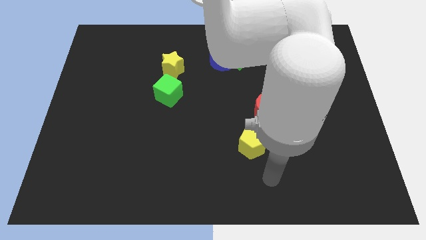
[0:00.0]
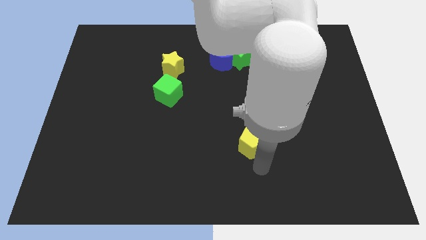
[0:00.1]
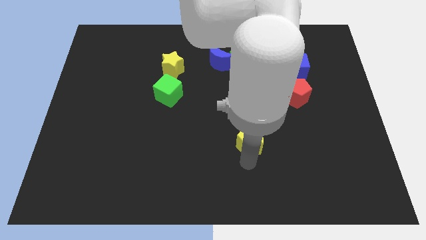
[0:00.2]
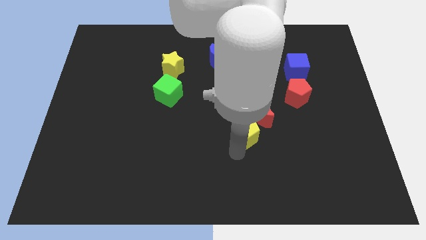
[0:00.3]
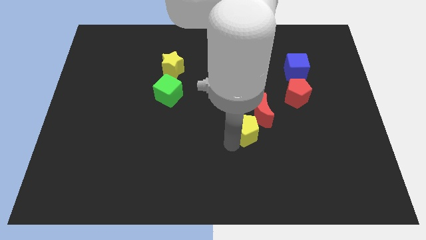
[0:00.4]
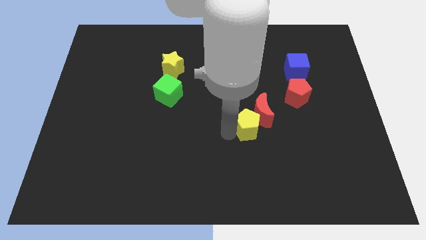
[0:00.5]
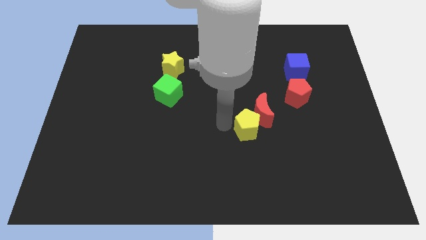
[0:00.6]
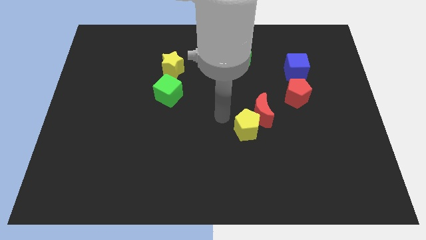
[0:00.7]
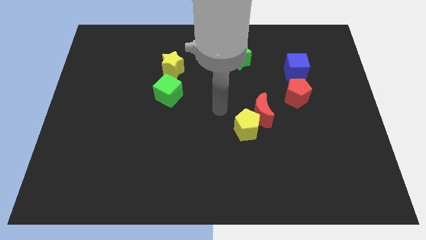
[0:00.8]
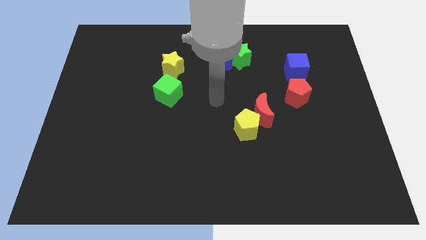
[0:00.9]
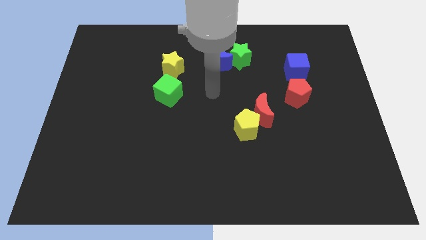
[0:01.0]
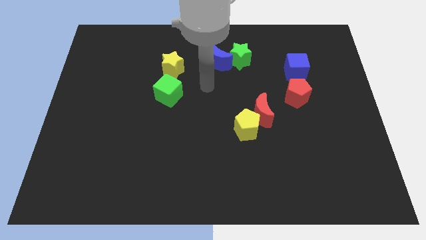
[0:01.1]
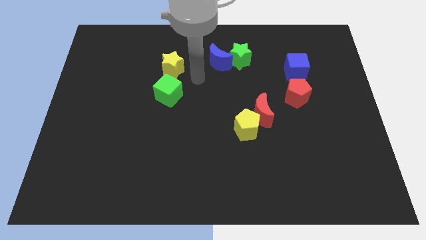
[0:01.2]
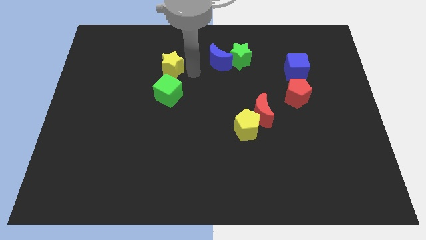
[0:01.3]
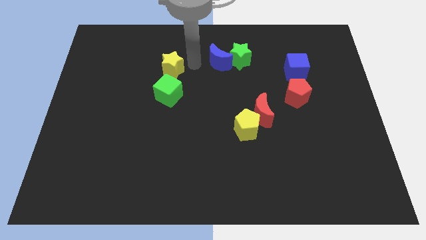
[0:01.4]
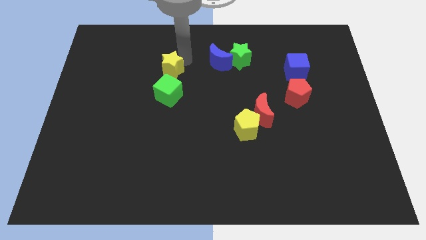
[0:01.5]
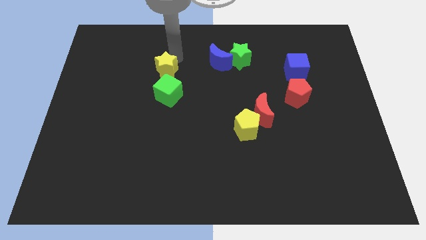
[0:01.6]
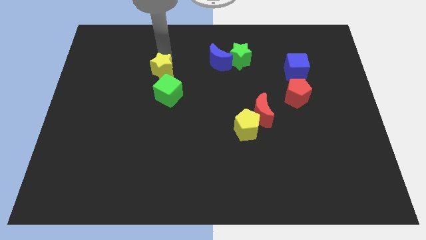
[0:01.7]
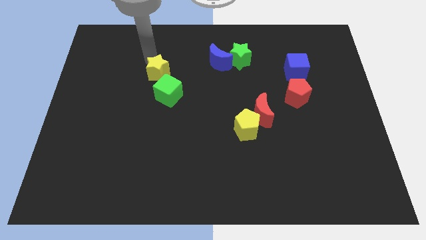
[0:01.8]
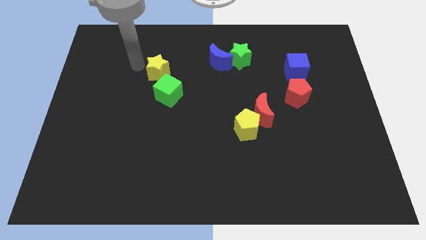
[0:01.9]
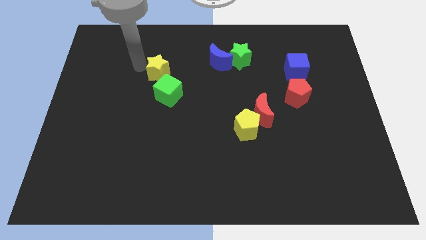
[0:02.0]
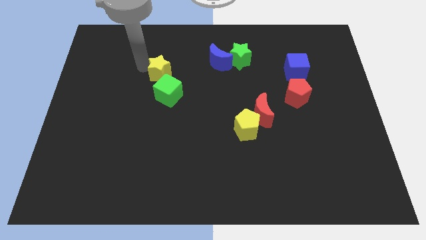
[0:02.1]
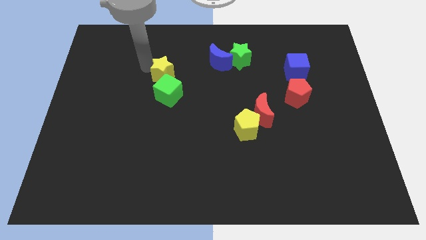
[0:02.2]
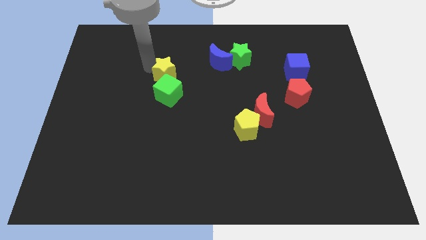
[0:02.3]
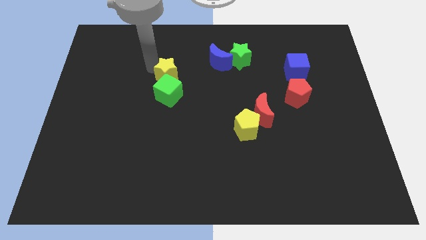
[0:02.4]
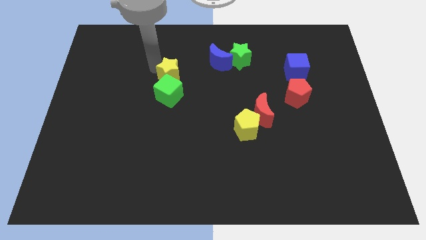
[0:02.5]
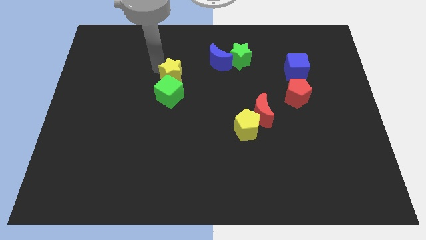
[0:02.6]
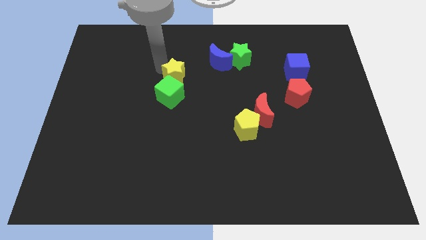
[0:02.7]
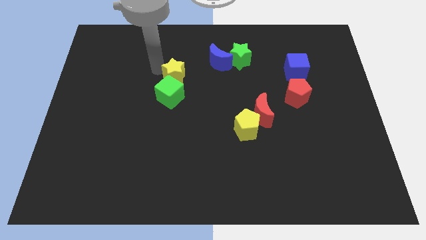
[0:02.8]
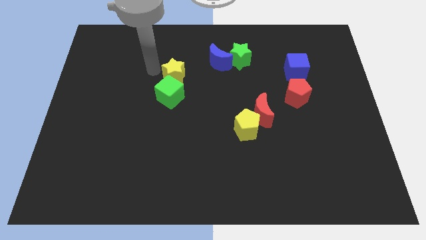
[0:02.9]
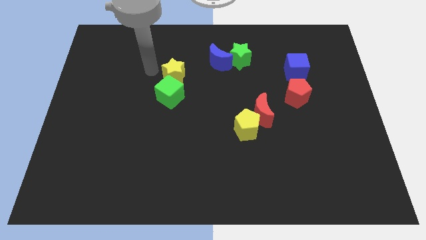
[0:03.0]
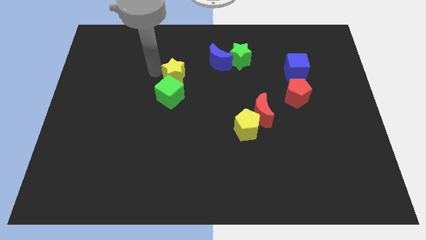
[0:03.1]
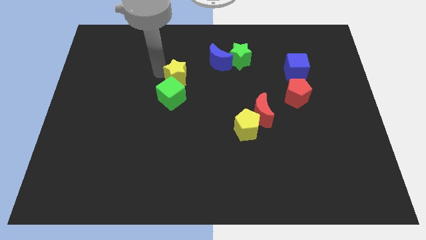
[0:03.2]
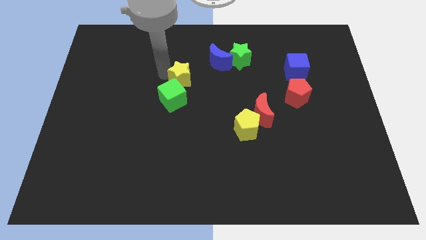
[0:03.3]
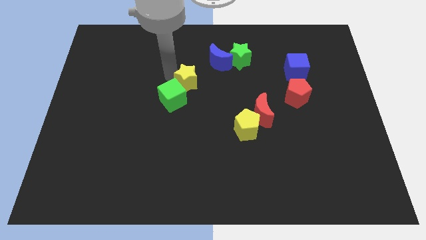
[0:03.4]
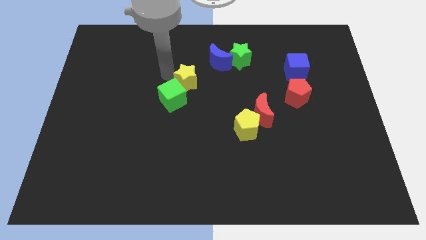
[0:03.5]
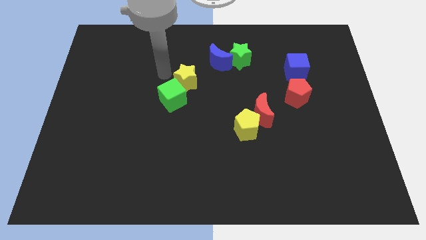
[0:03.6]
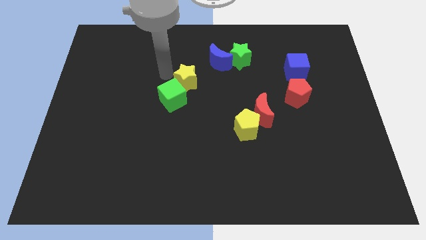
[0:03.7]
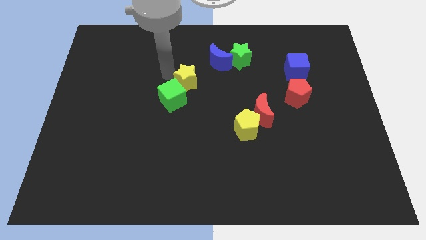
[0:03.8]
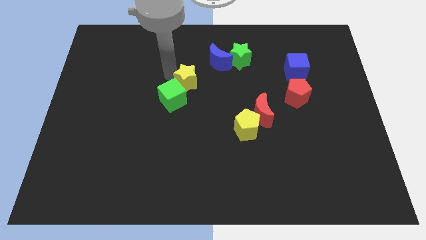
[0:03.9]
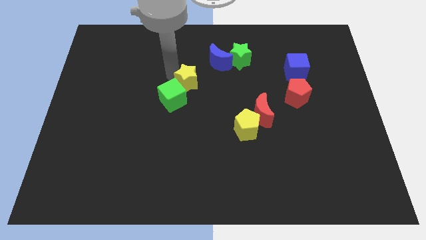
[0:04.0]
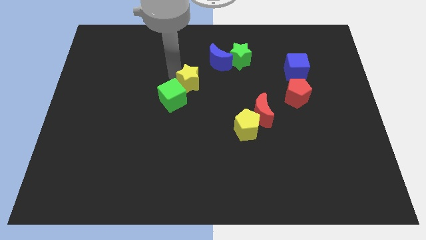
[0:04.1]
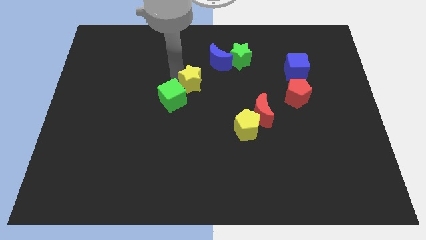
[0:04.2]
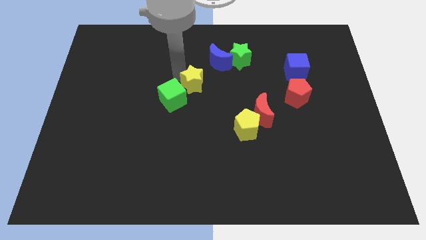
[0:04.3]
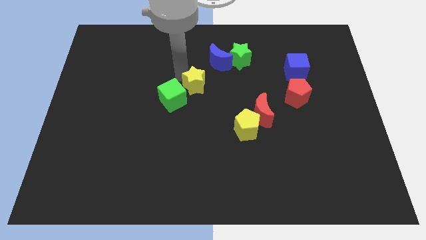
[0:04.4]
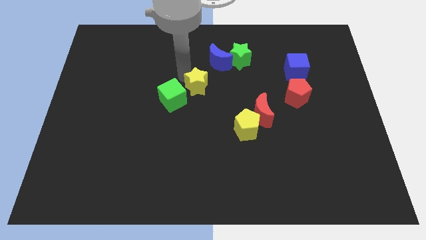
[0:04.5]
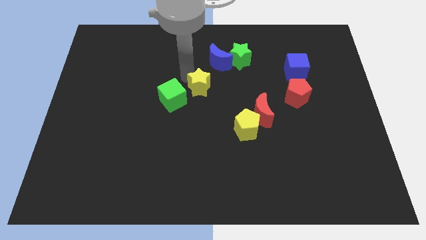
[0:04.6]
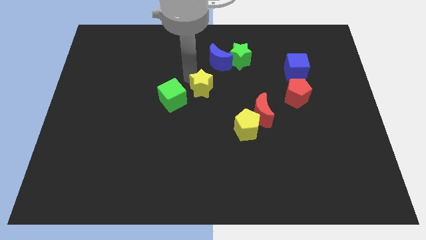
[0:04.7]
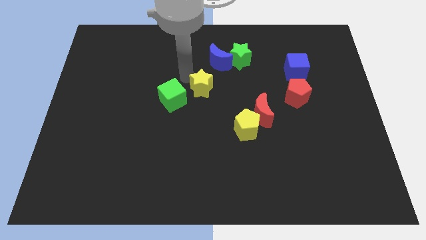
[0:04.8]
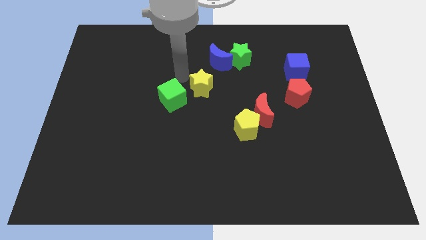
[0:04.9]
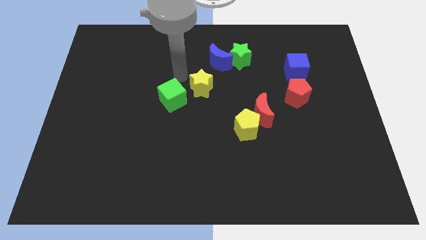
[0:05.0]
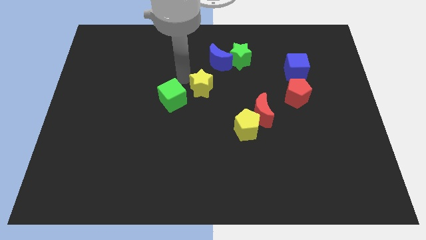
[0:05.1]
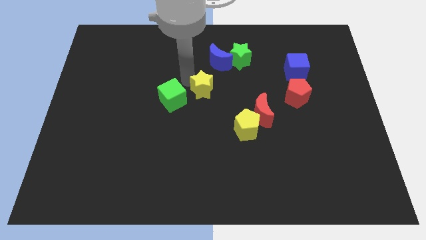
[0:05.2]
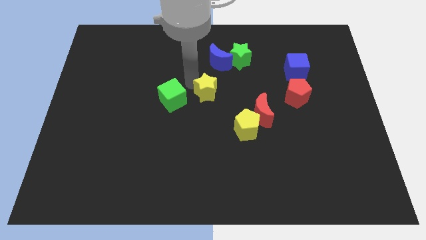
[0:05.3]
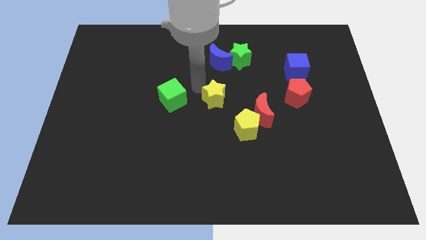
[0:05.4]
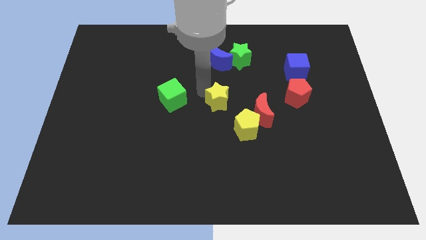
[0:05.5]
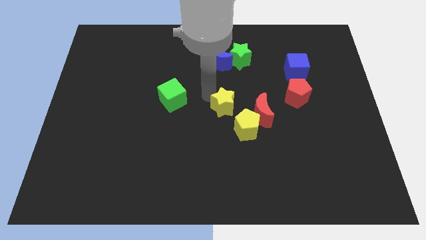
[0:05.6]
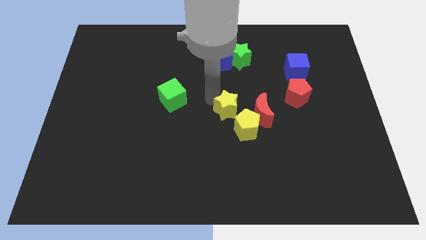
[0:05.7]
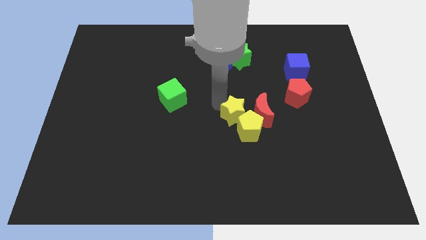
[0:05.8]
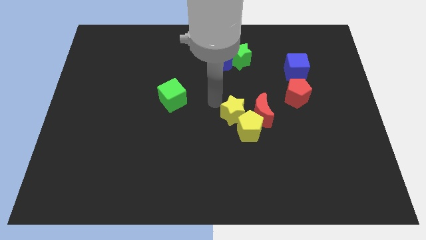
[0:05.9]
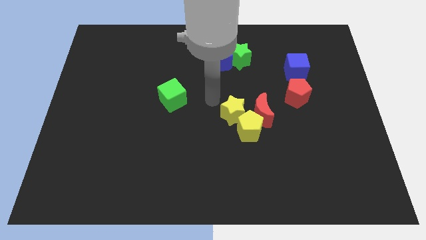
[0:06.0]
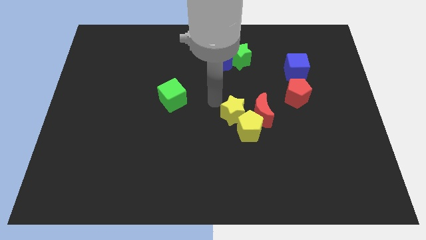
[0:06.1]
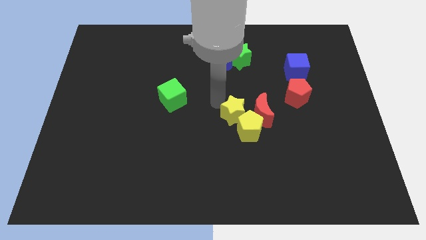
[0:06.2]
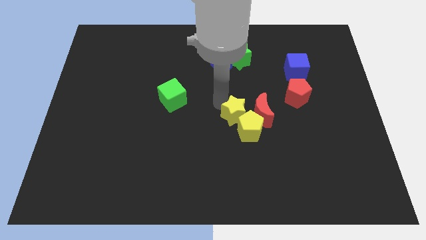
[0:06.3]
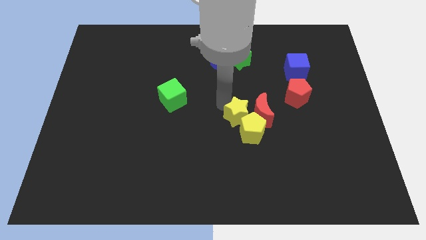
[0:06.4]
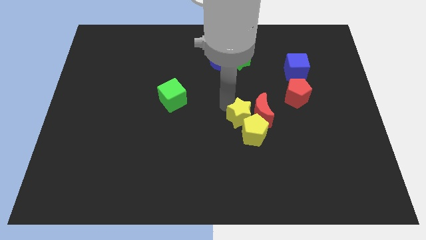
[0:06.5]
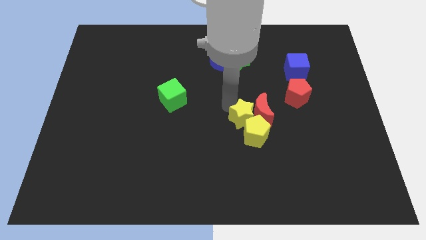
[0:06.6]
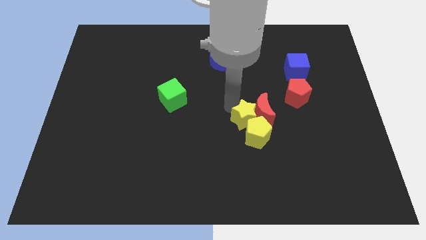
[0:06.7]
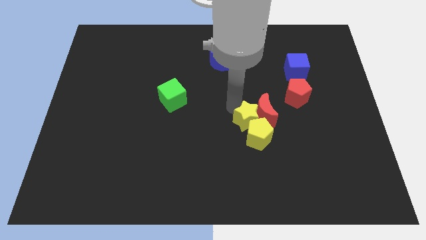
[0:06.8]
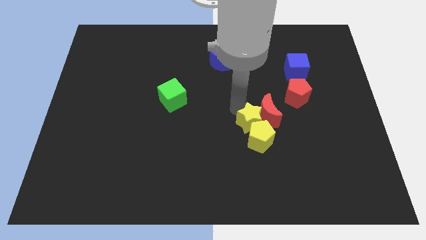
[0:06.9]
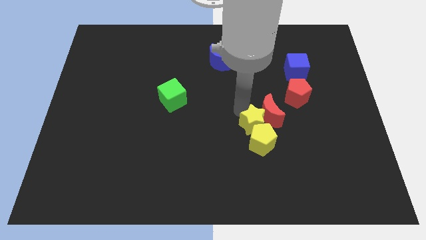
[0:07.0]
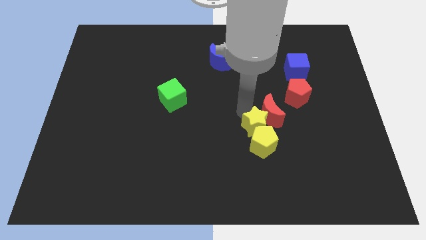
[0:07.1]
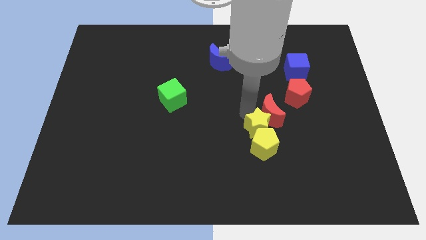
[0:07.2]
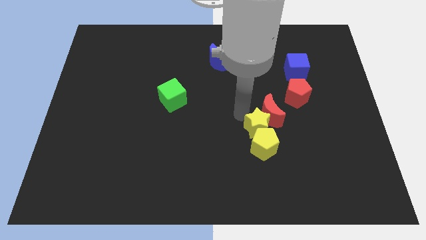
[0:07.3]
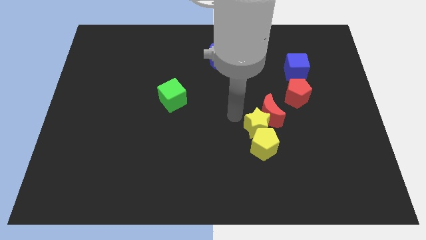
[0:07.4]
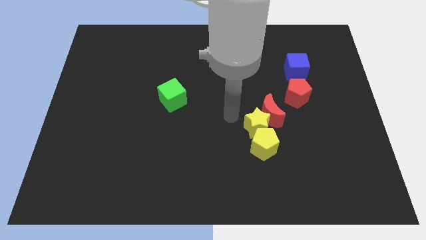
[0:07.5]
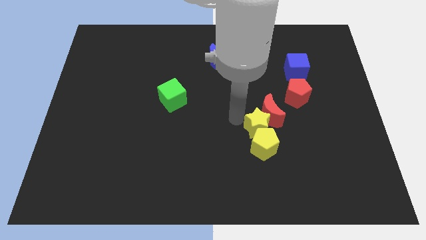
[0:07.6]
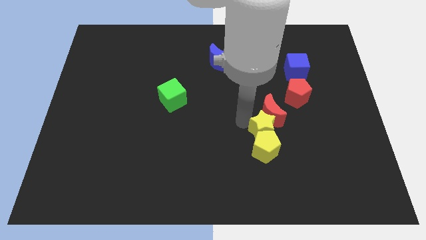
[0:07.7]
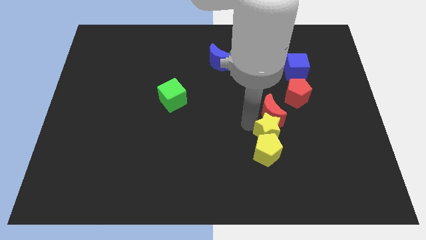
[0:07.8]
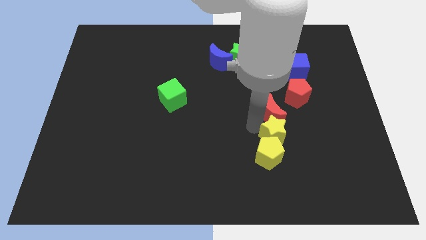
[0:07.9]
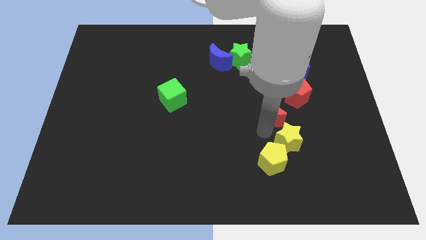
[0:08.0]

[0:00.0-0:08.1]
slide the yellow star just right of the yellow pentagon
